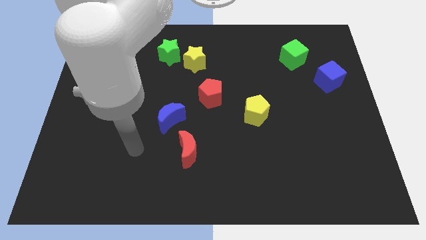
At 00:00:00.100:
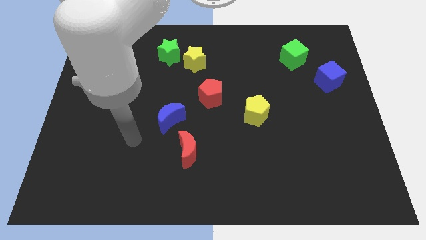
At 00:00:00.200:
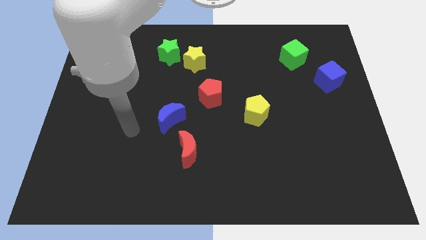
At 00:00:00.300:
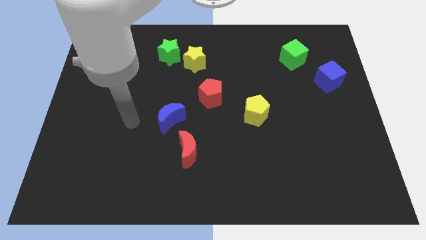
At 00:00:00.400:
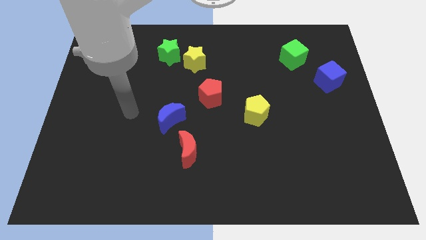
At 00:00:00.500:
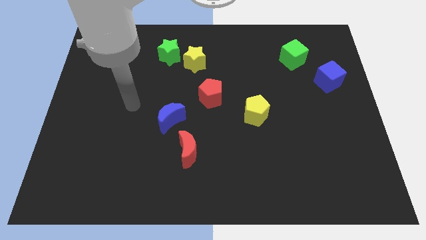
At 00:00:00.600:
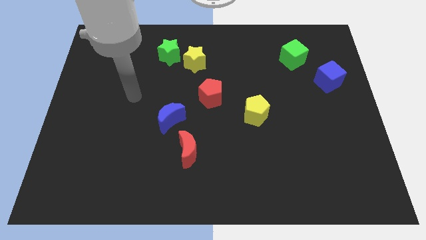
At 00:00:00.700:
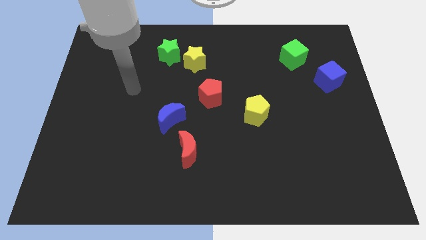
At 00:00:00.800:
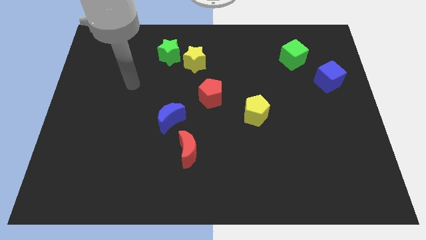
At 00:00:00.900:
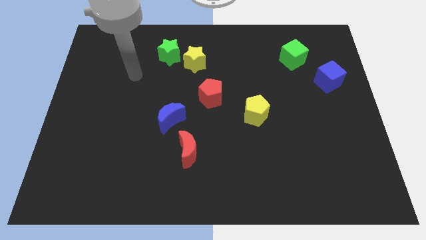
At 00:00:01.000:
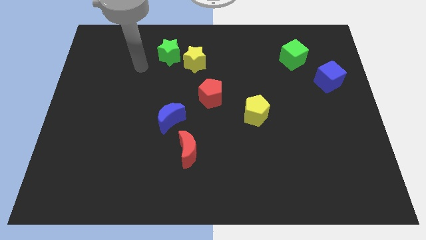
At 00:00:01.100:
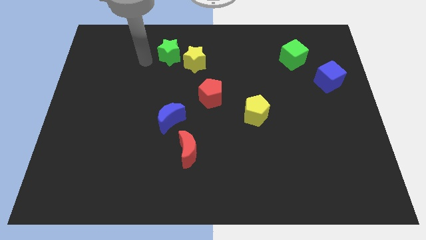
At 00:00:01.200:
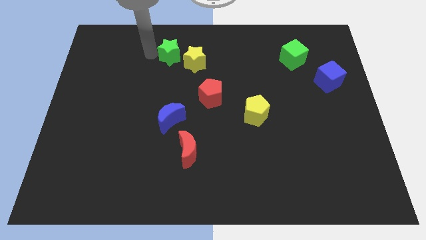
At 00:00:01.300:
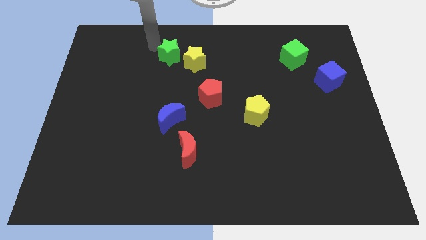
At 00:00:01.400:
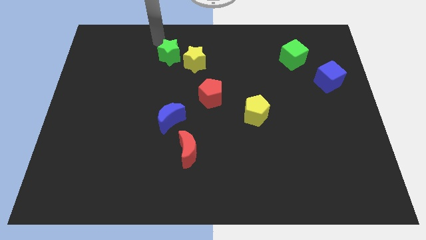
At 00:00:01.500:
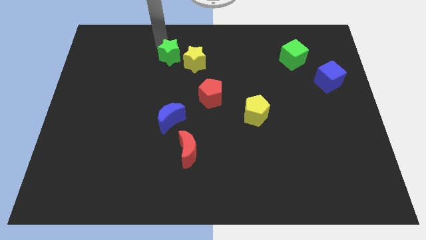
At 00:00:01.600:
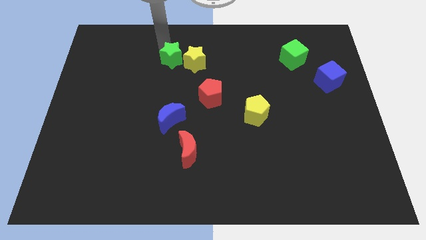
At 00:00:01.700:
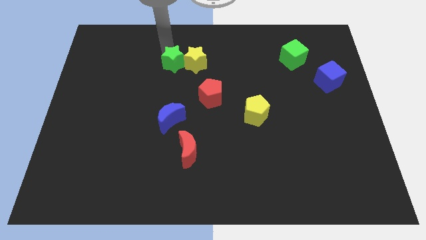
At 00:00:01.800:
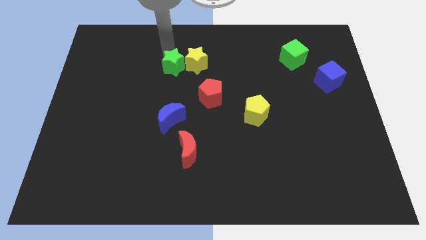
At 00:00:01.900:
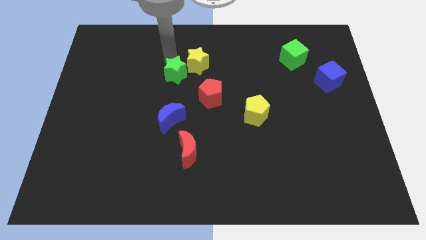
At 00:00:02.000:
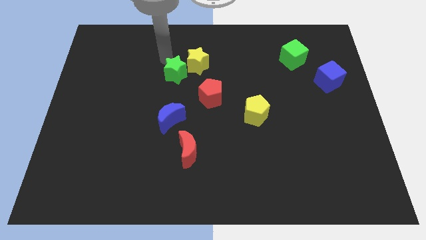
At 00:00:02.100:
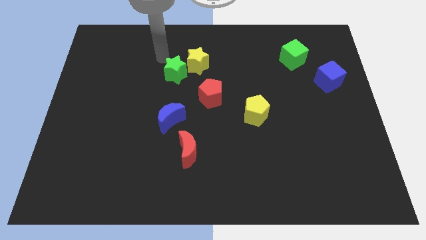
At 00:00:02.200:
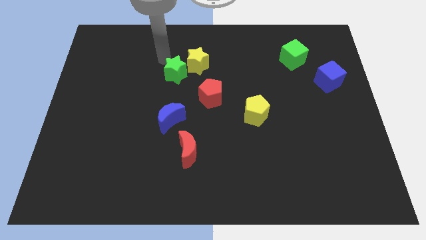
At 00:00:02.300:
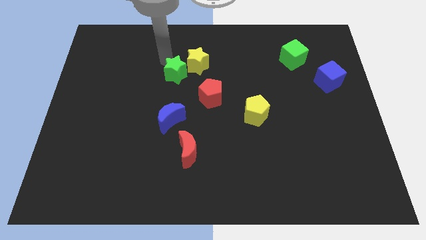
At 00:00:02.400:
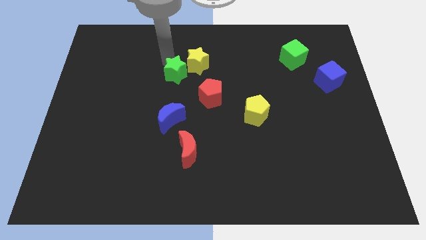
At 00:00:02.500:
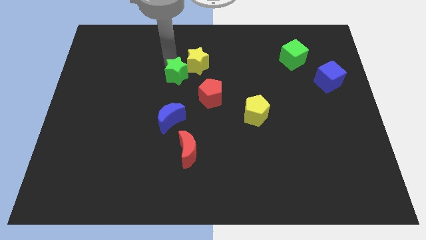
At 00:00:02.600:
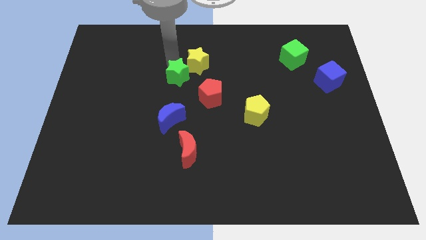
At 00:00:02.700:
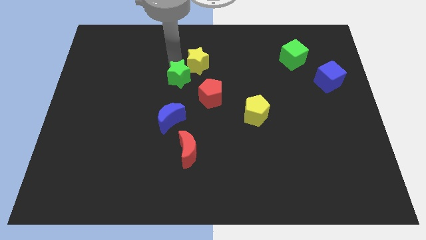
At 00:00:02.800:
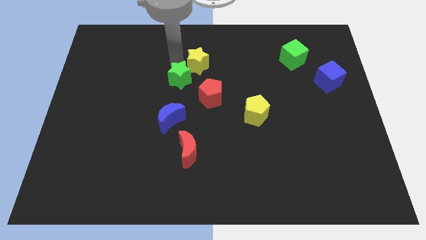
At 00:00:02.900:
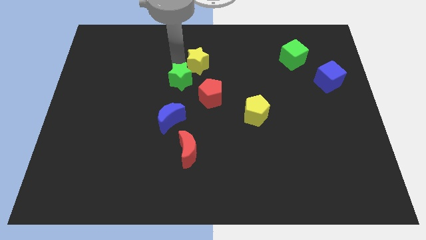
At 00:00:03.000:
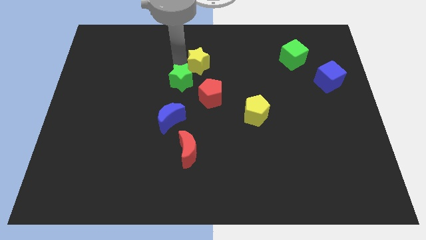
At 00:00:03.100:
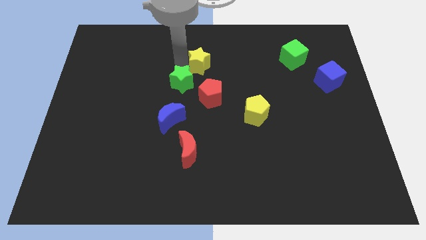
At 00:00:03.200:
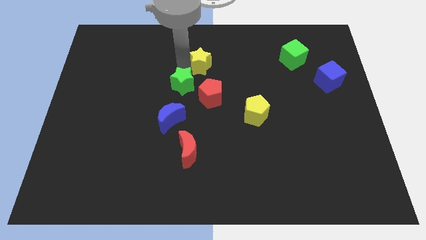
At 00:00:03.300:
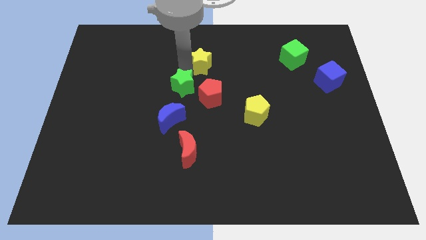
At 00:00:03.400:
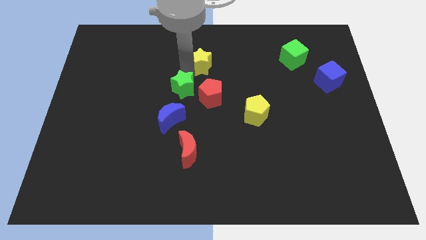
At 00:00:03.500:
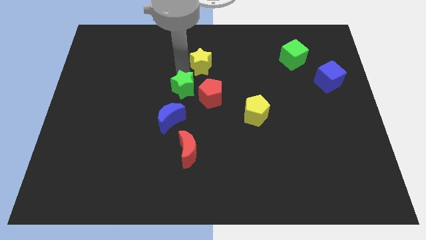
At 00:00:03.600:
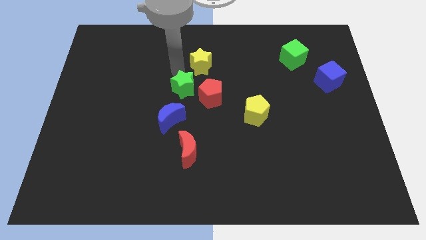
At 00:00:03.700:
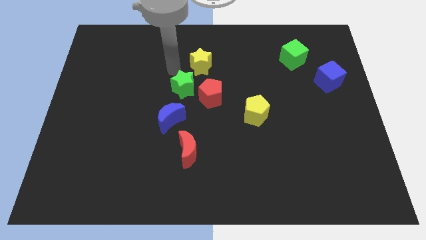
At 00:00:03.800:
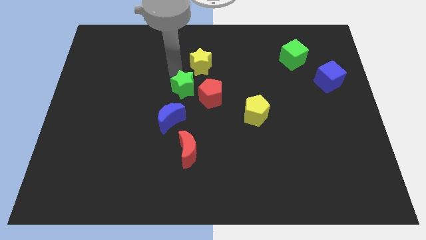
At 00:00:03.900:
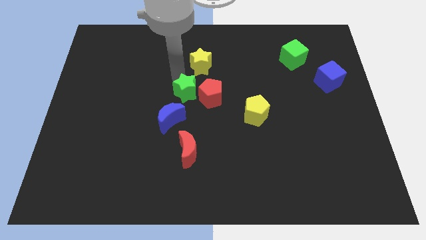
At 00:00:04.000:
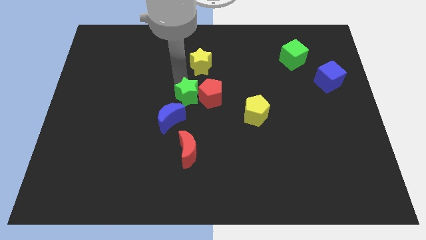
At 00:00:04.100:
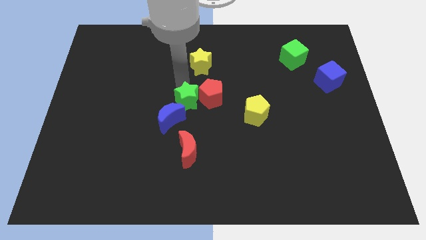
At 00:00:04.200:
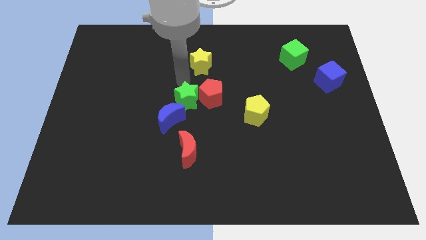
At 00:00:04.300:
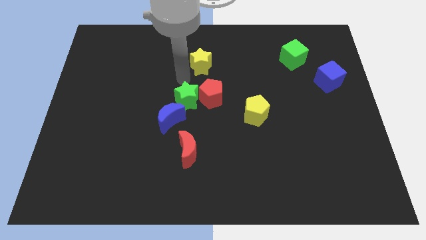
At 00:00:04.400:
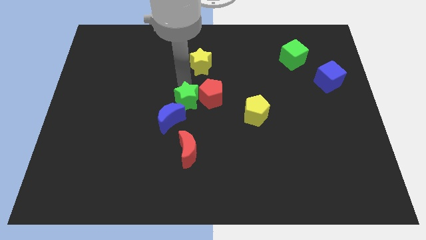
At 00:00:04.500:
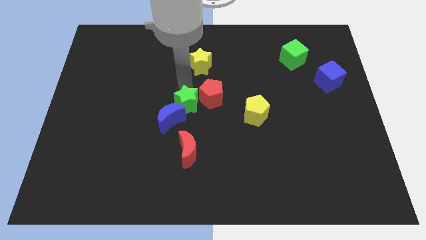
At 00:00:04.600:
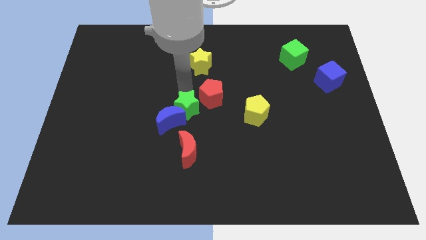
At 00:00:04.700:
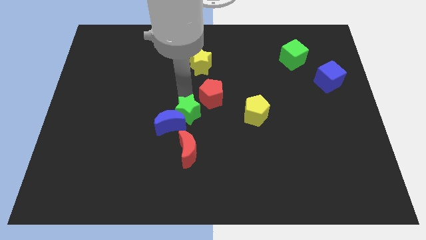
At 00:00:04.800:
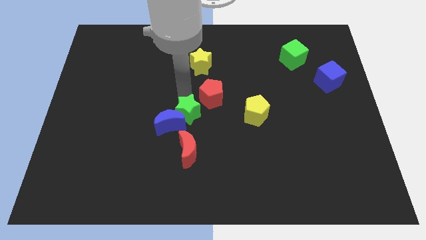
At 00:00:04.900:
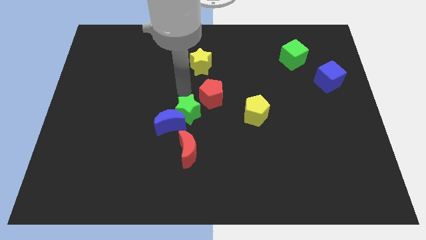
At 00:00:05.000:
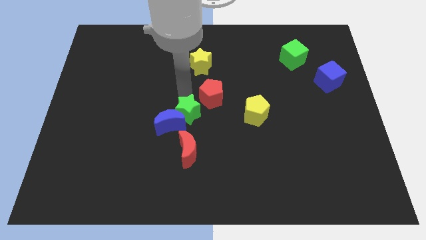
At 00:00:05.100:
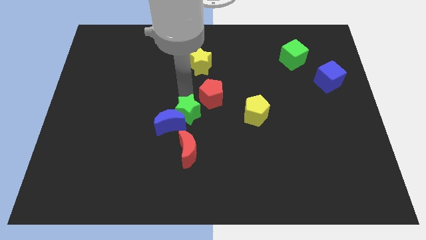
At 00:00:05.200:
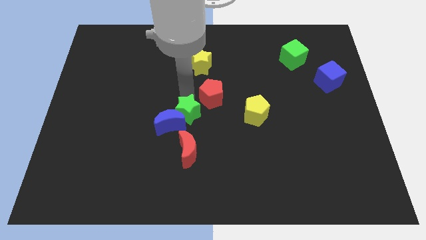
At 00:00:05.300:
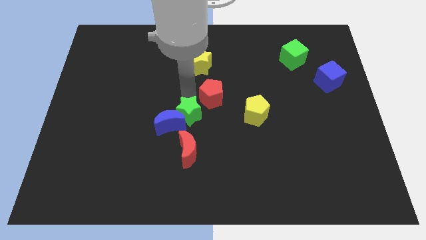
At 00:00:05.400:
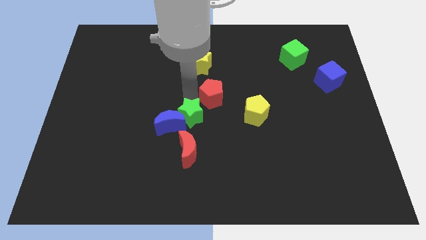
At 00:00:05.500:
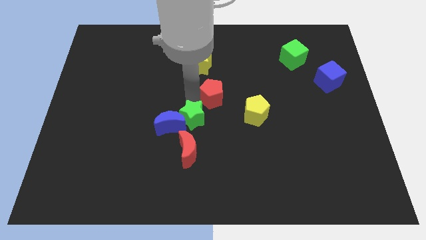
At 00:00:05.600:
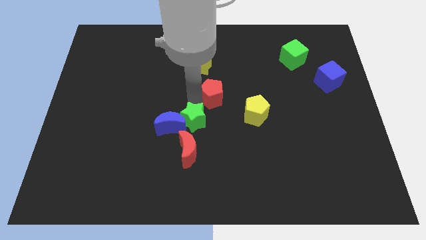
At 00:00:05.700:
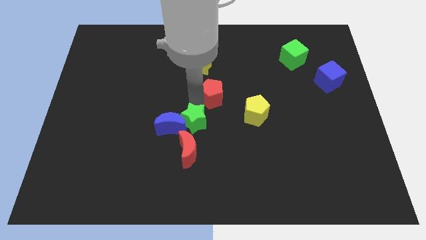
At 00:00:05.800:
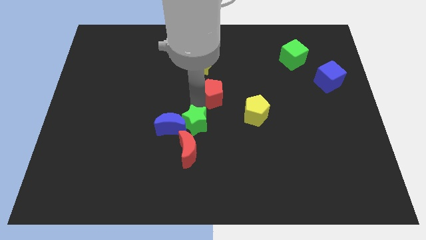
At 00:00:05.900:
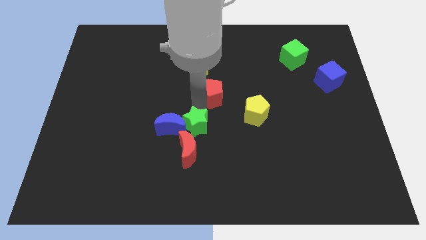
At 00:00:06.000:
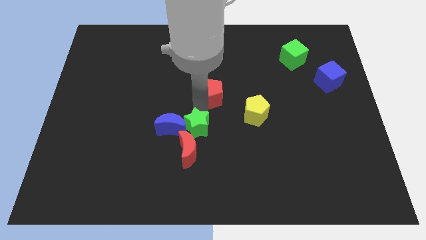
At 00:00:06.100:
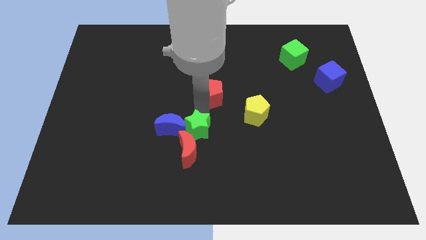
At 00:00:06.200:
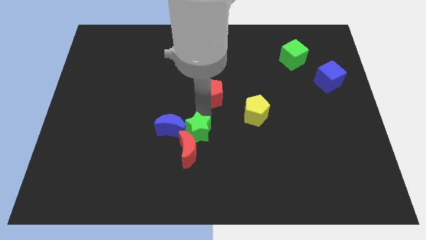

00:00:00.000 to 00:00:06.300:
move the green star to the red moon

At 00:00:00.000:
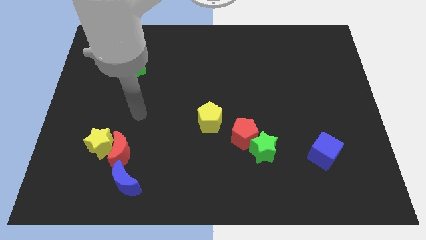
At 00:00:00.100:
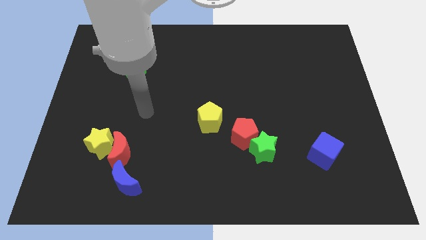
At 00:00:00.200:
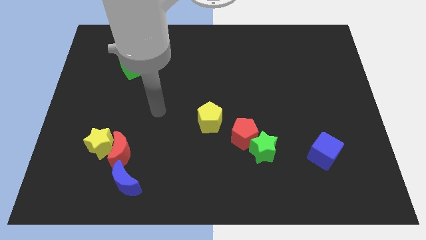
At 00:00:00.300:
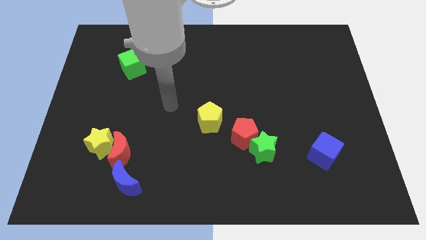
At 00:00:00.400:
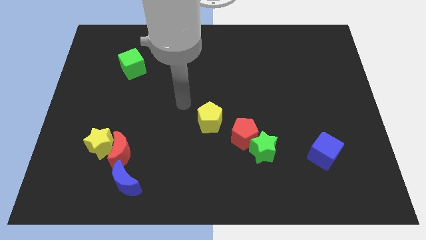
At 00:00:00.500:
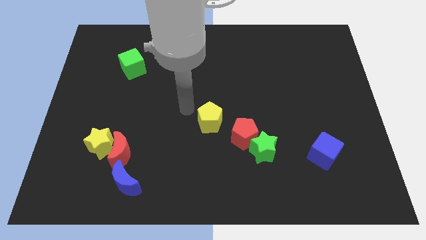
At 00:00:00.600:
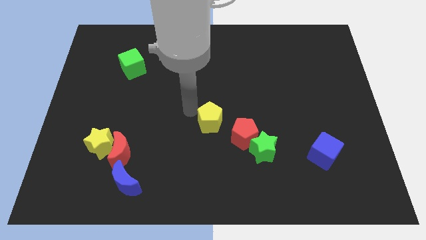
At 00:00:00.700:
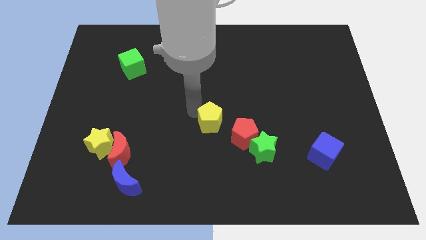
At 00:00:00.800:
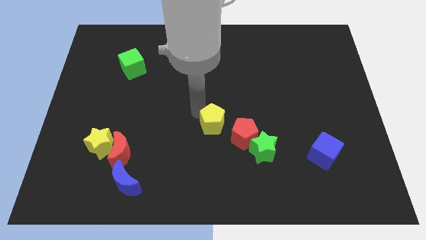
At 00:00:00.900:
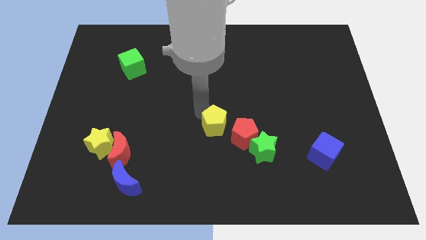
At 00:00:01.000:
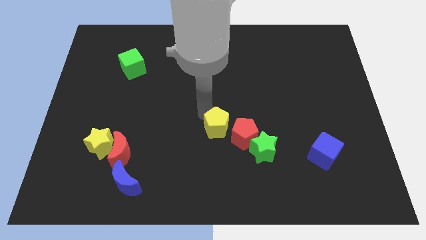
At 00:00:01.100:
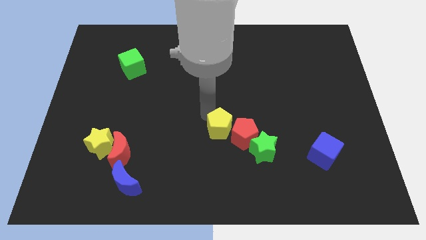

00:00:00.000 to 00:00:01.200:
put the yellow pentagon close to the red pentagon

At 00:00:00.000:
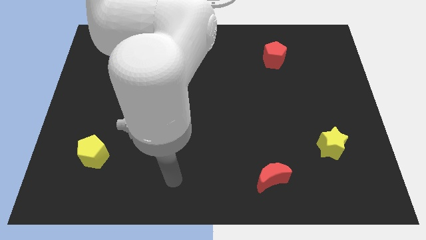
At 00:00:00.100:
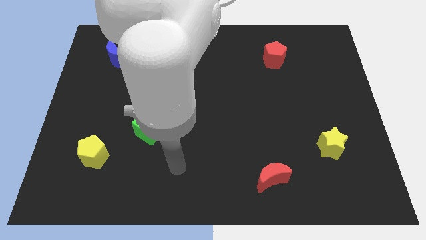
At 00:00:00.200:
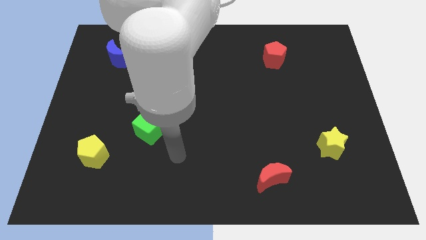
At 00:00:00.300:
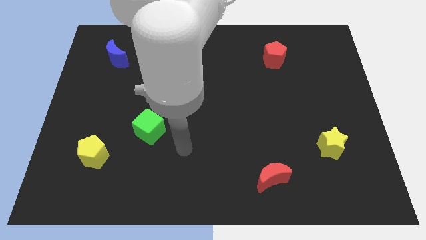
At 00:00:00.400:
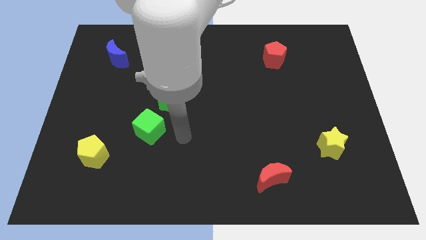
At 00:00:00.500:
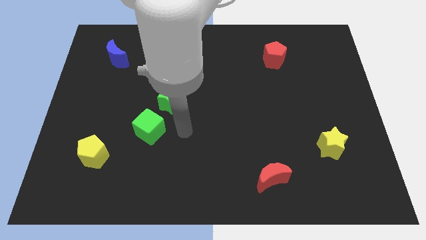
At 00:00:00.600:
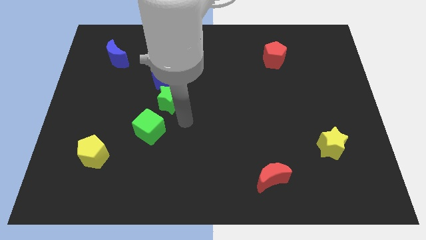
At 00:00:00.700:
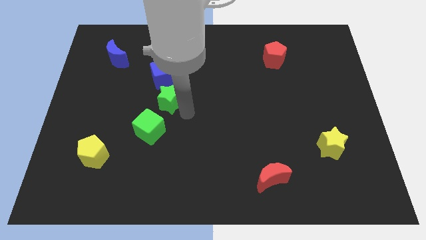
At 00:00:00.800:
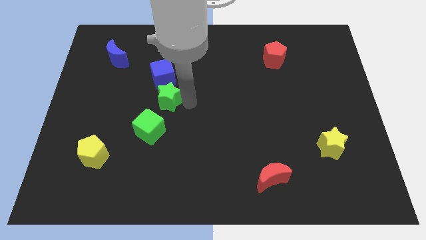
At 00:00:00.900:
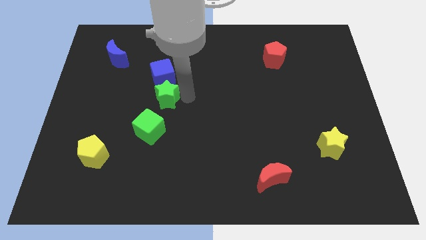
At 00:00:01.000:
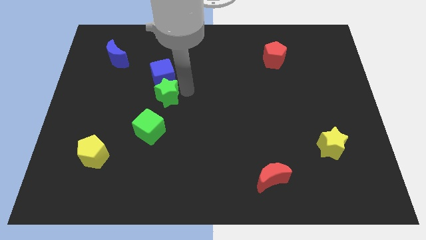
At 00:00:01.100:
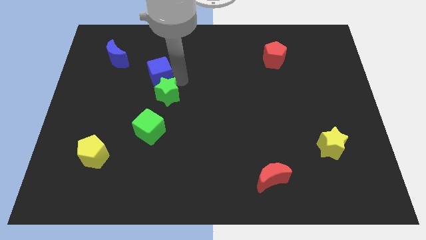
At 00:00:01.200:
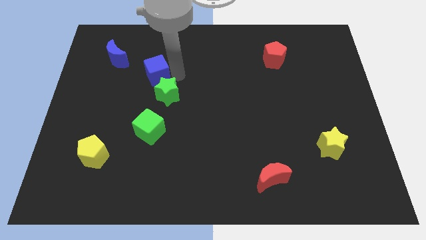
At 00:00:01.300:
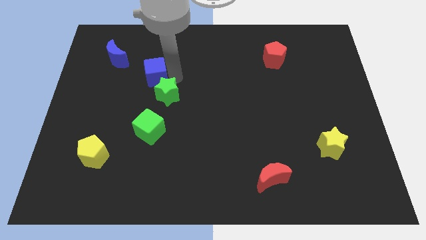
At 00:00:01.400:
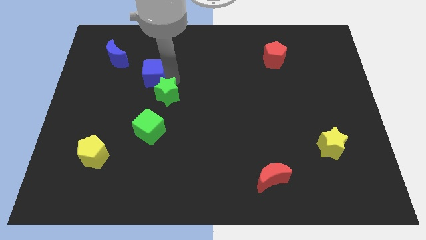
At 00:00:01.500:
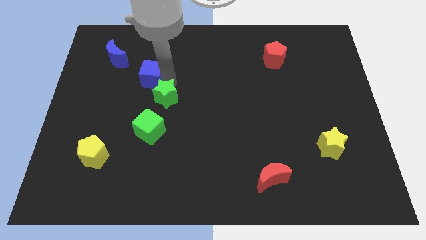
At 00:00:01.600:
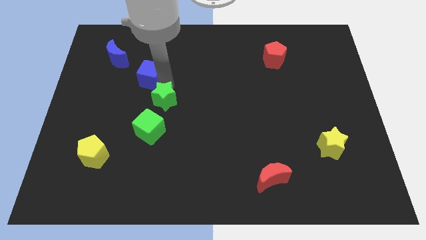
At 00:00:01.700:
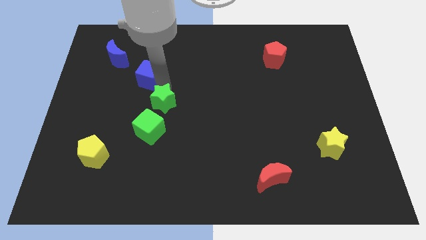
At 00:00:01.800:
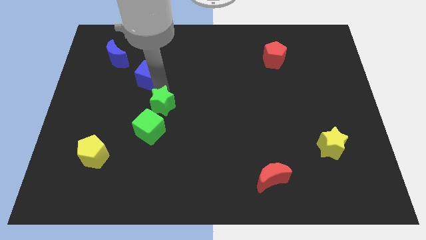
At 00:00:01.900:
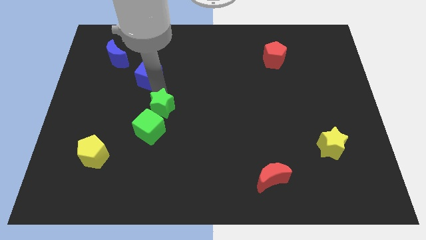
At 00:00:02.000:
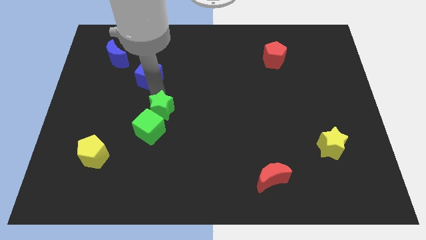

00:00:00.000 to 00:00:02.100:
move the green star next to the green cube
